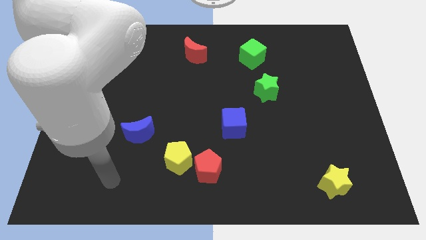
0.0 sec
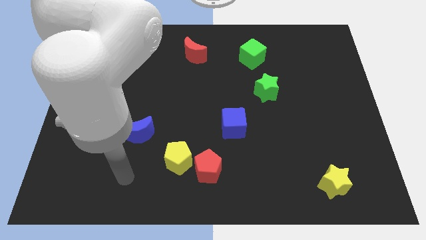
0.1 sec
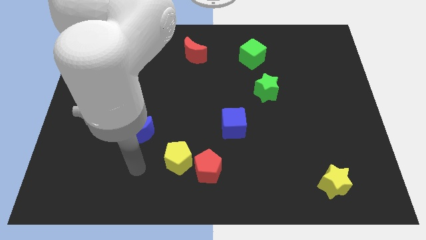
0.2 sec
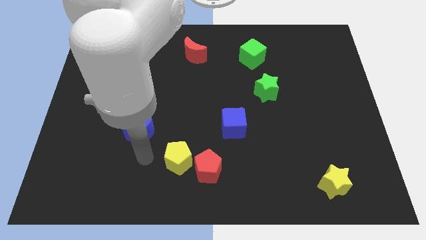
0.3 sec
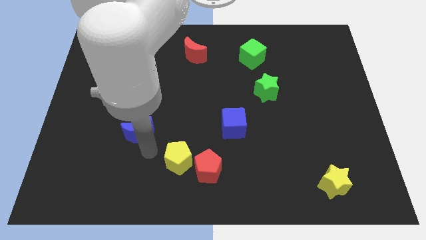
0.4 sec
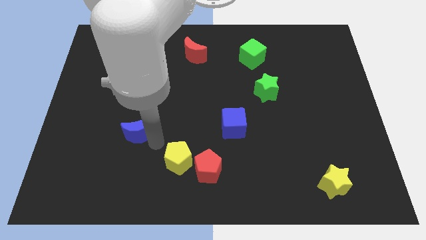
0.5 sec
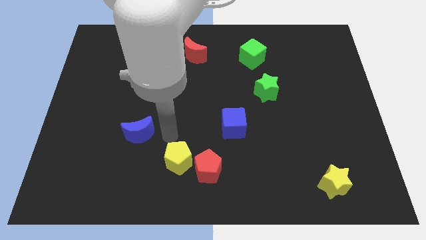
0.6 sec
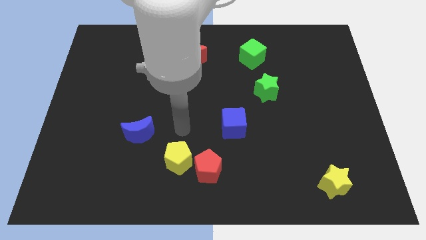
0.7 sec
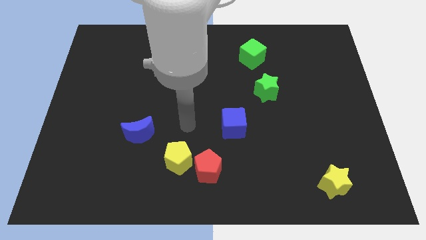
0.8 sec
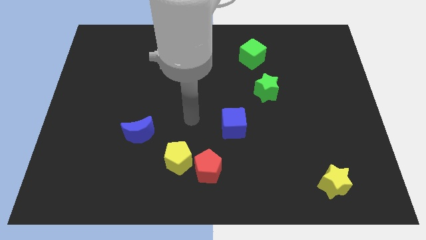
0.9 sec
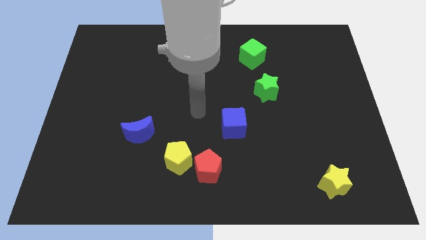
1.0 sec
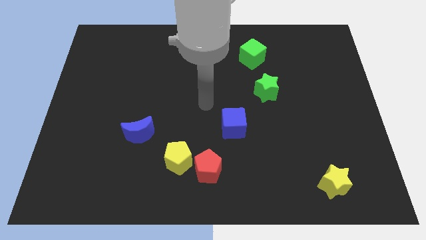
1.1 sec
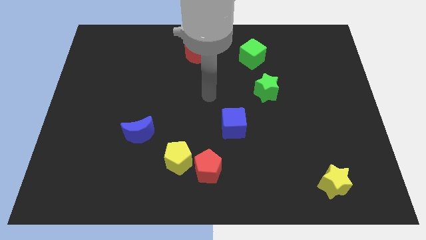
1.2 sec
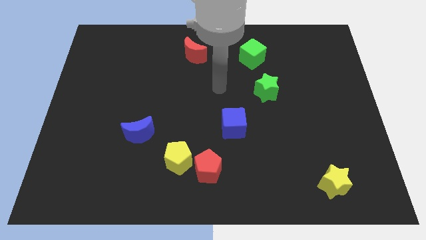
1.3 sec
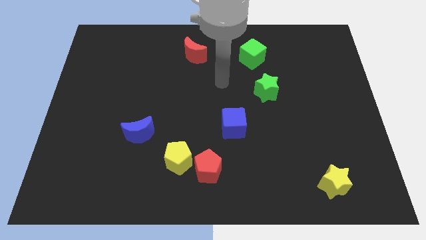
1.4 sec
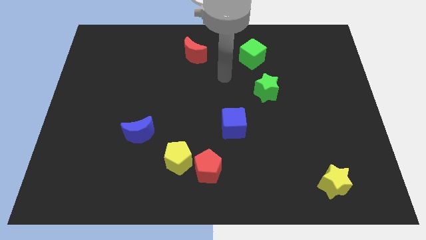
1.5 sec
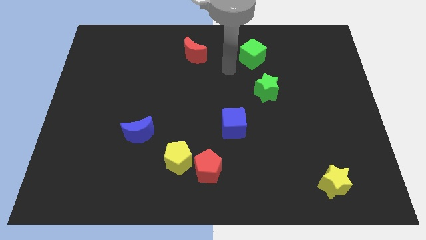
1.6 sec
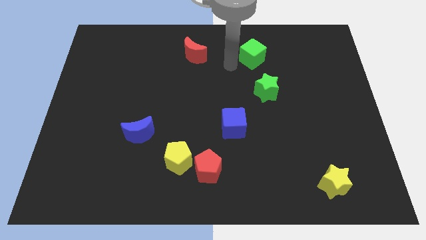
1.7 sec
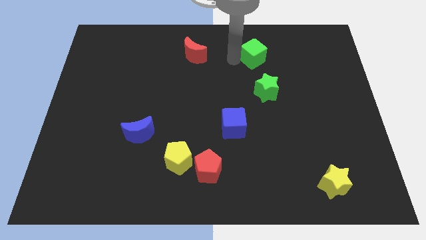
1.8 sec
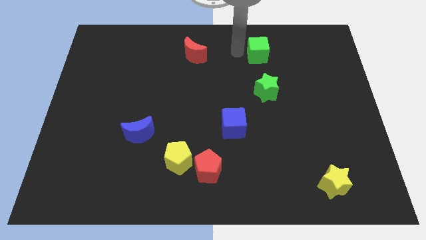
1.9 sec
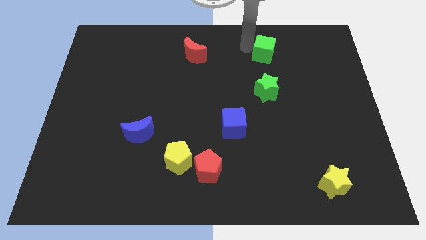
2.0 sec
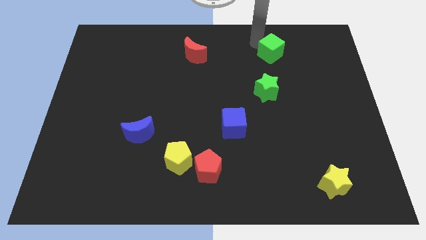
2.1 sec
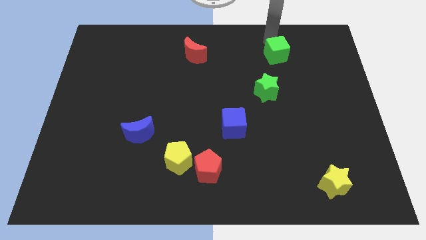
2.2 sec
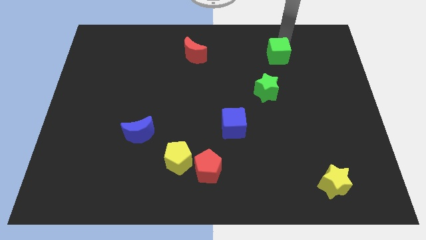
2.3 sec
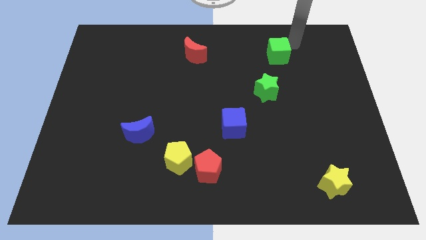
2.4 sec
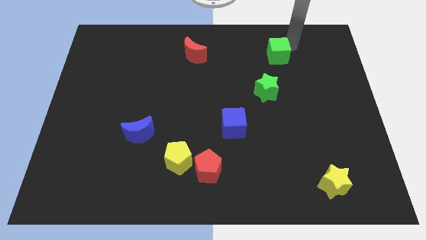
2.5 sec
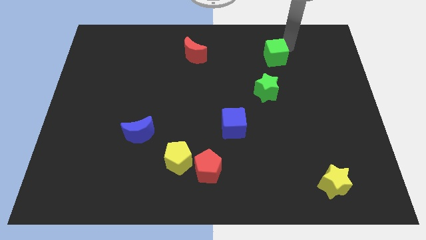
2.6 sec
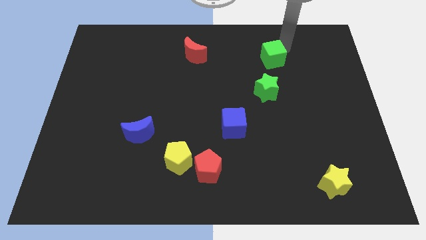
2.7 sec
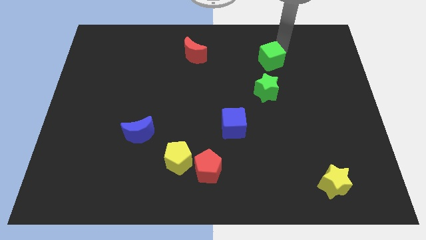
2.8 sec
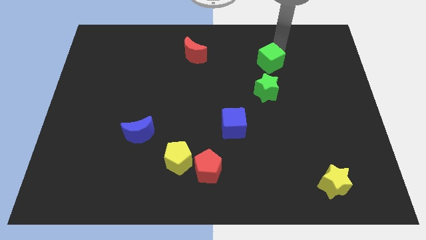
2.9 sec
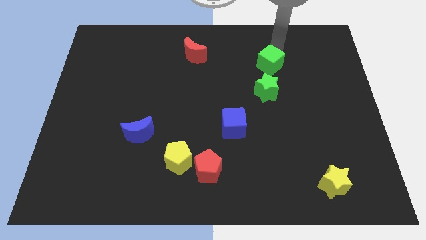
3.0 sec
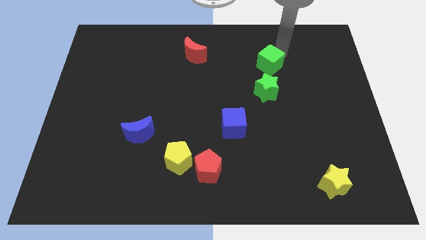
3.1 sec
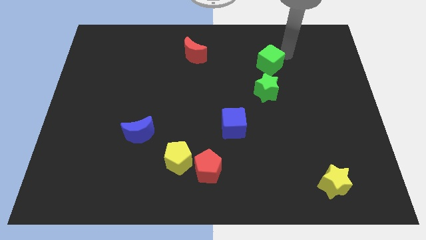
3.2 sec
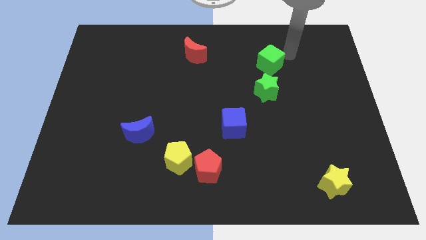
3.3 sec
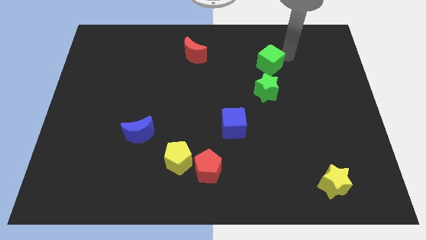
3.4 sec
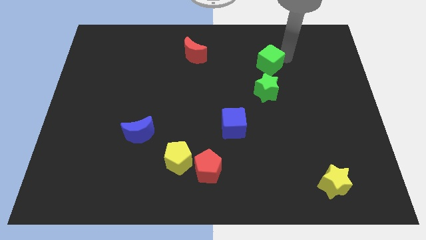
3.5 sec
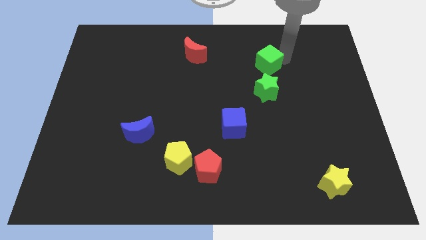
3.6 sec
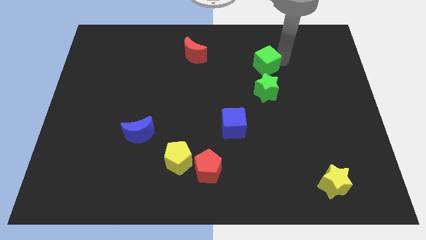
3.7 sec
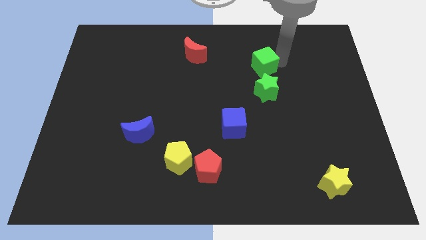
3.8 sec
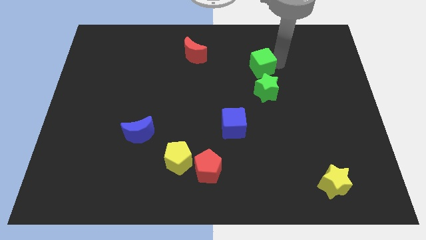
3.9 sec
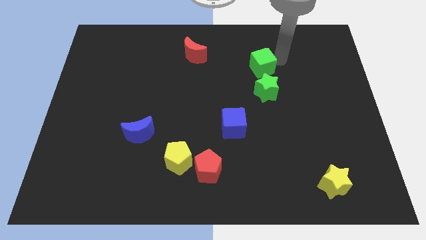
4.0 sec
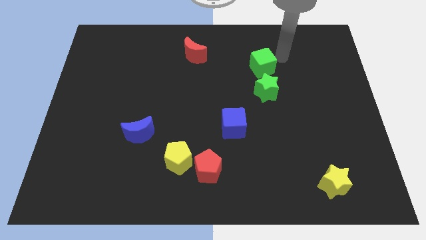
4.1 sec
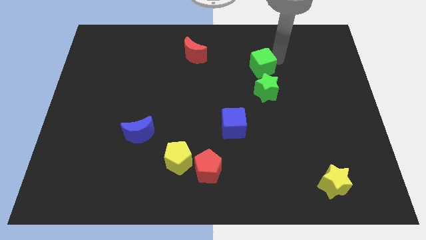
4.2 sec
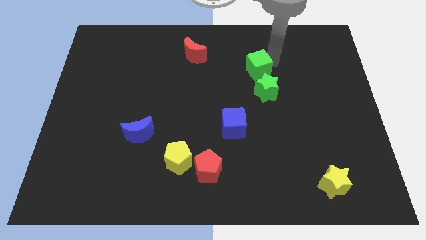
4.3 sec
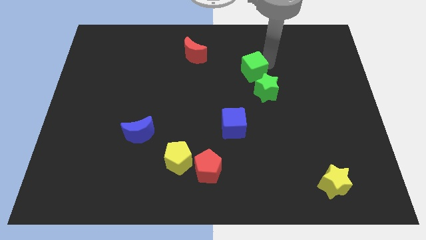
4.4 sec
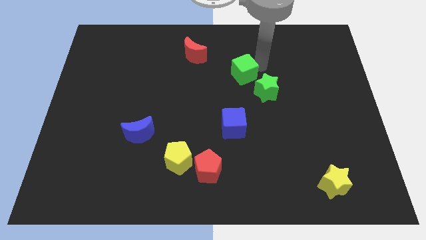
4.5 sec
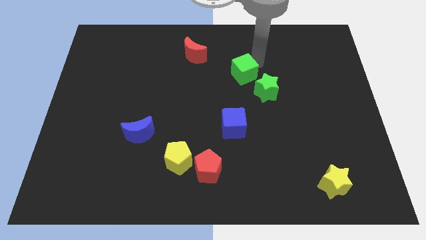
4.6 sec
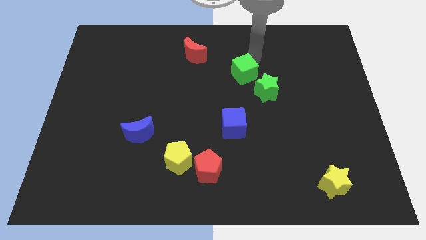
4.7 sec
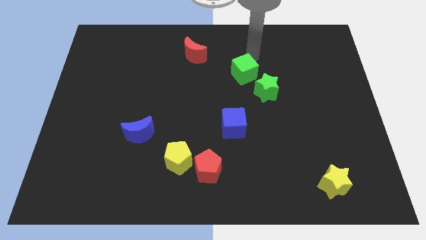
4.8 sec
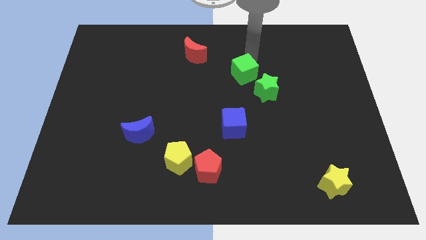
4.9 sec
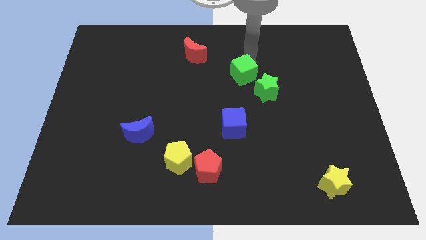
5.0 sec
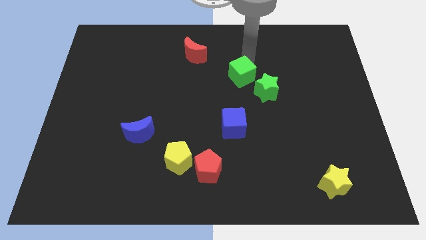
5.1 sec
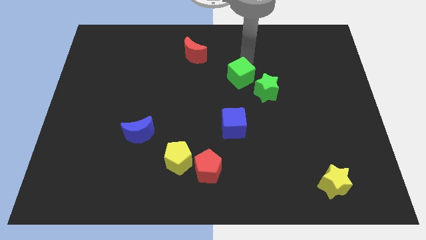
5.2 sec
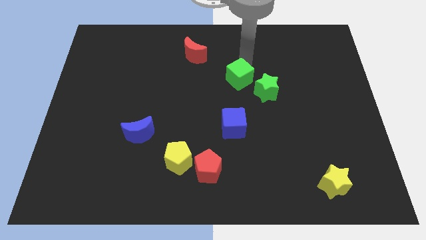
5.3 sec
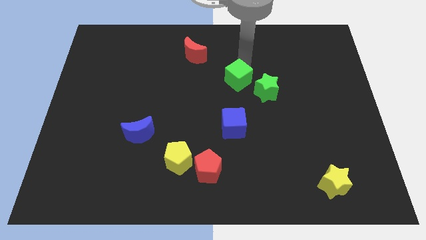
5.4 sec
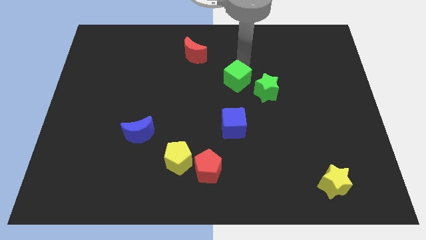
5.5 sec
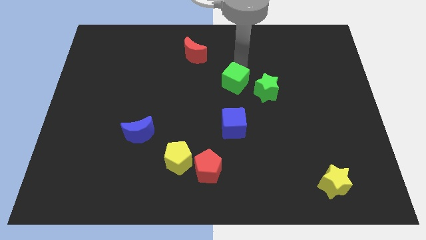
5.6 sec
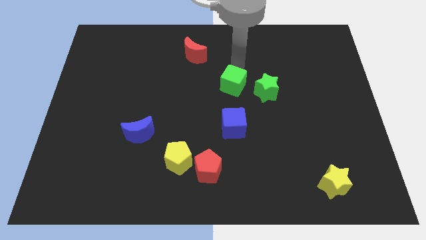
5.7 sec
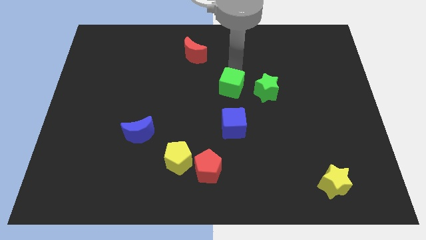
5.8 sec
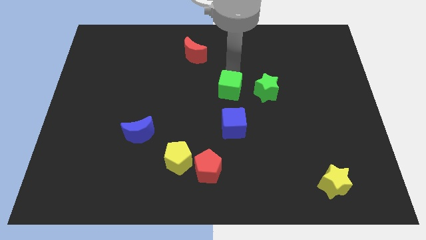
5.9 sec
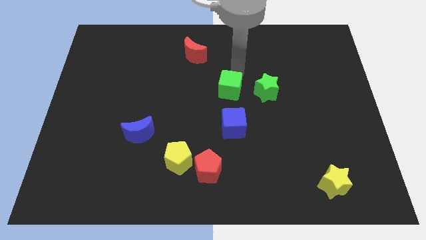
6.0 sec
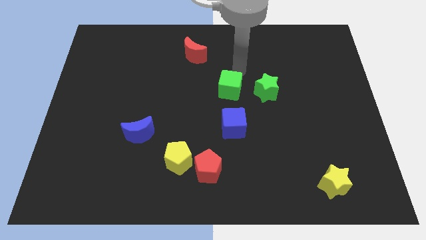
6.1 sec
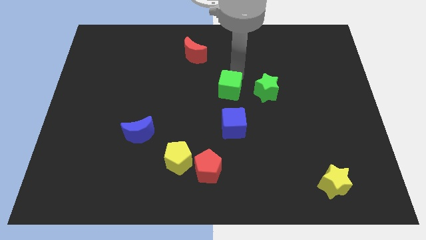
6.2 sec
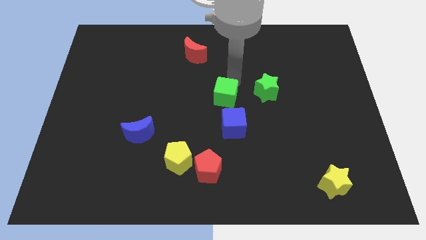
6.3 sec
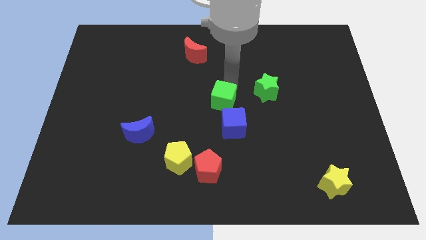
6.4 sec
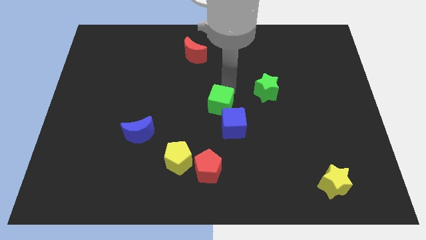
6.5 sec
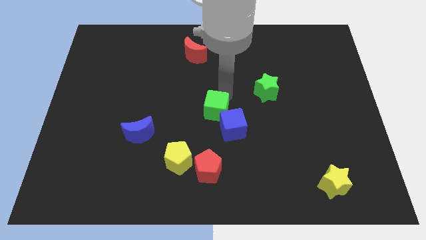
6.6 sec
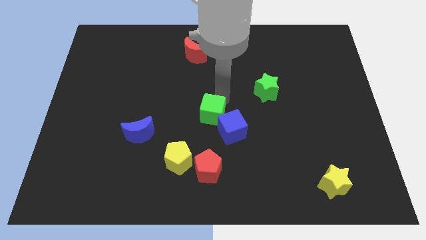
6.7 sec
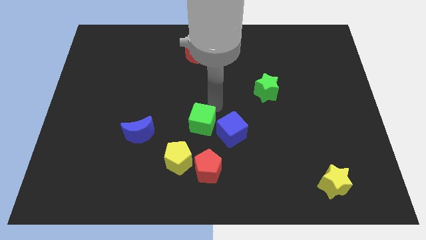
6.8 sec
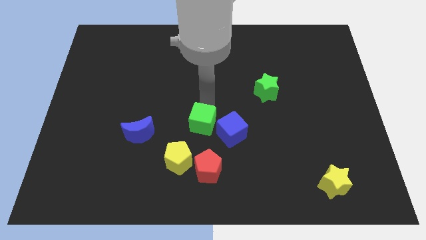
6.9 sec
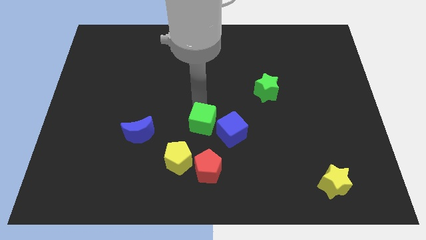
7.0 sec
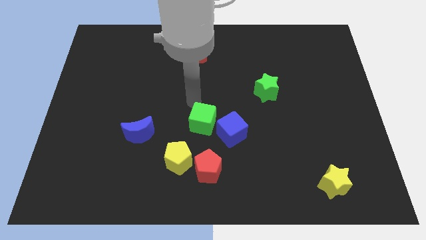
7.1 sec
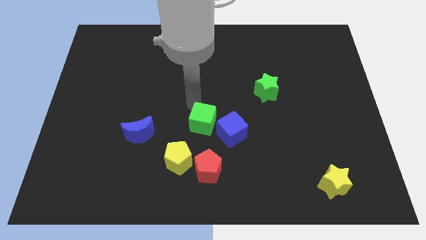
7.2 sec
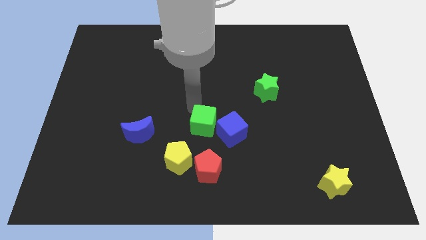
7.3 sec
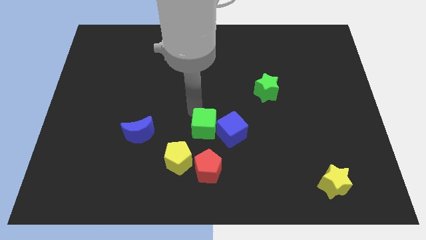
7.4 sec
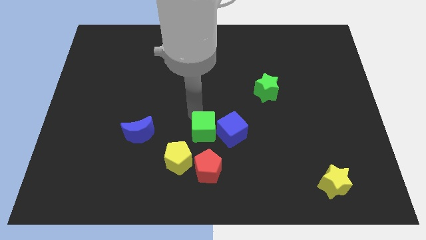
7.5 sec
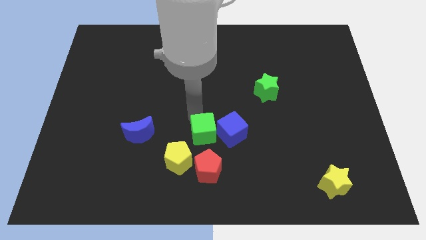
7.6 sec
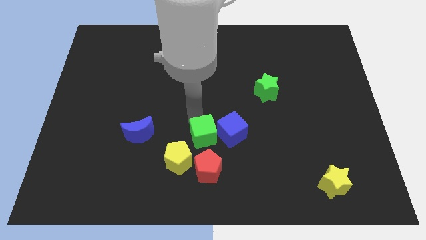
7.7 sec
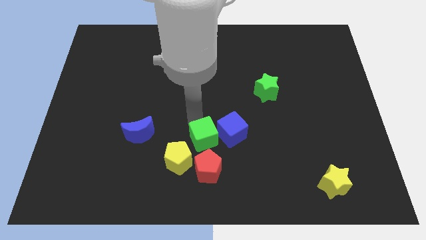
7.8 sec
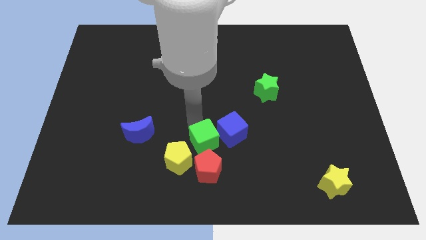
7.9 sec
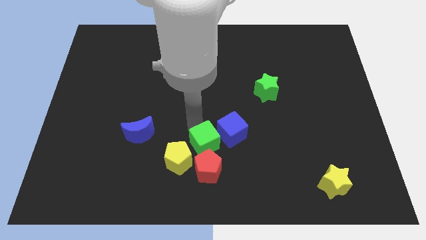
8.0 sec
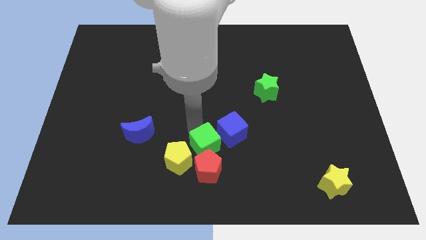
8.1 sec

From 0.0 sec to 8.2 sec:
put the green cube close to the red pentagon
